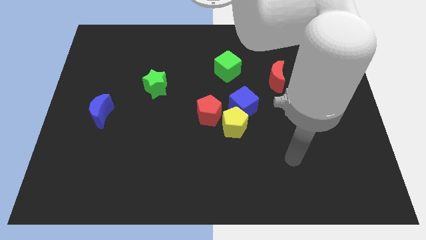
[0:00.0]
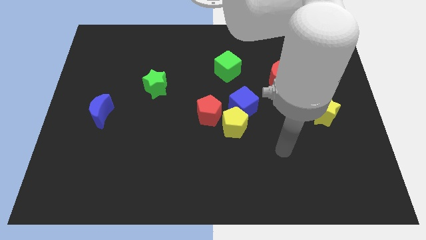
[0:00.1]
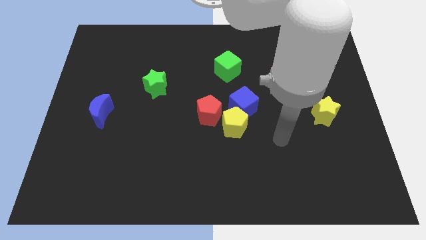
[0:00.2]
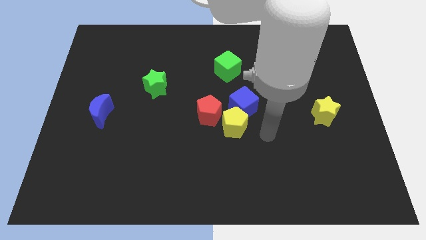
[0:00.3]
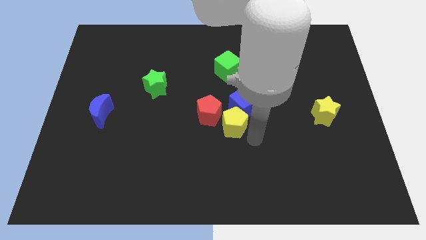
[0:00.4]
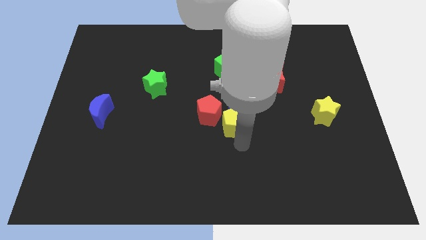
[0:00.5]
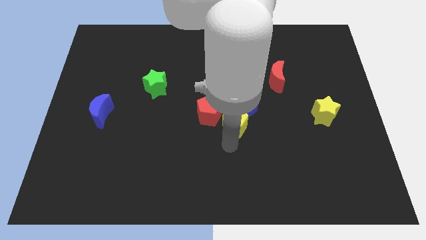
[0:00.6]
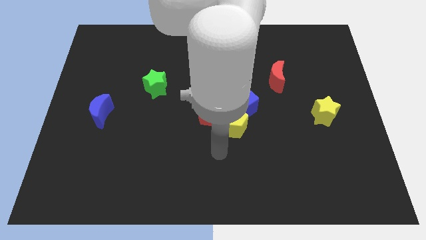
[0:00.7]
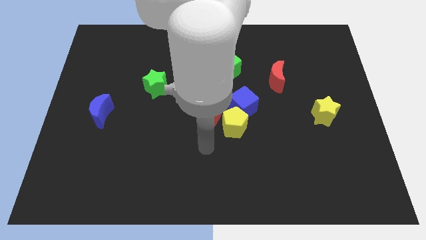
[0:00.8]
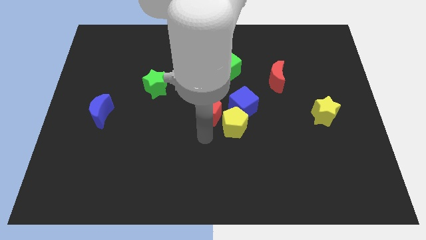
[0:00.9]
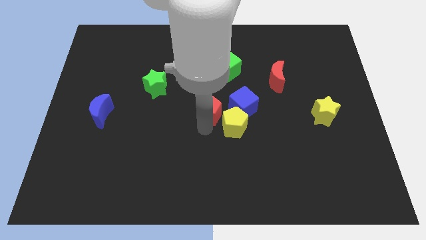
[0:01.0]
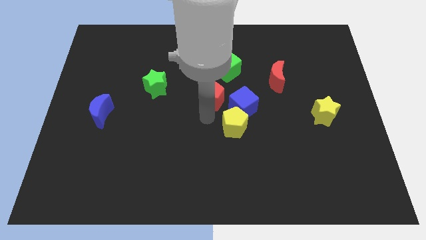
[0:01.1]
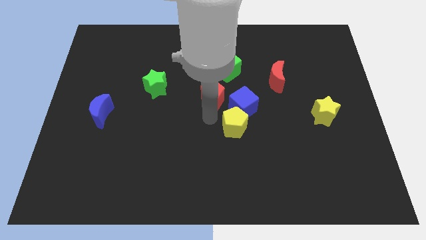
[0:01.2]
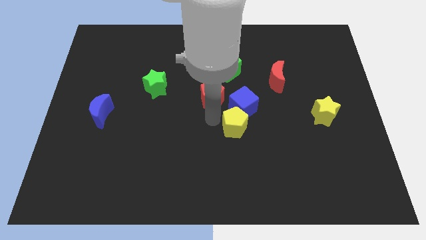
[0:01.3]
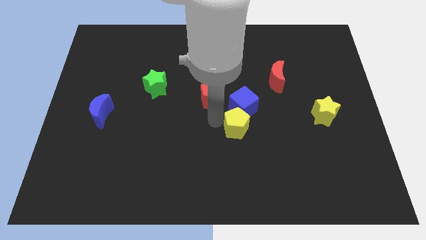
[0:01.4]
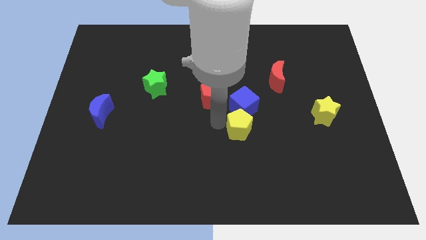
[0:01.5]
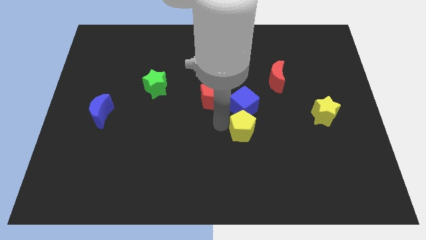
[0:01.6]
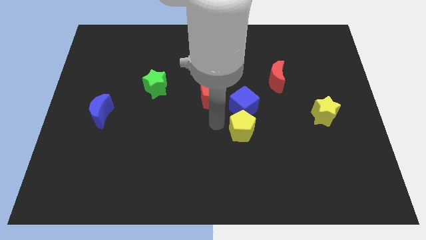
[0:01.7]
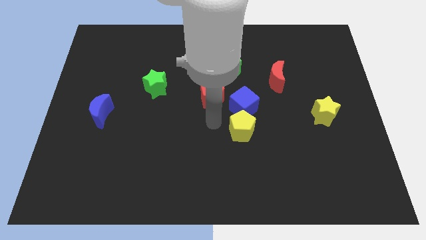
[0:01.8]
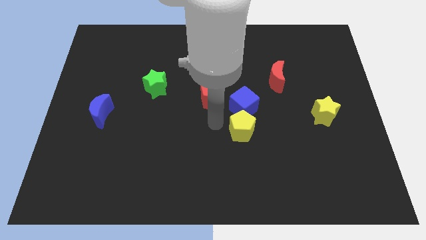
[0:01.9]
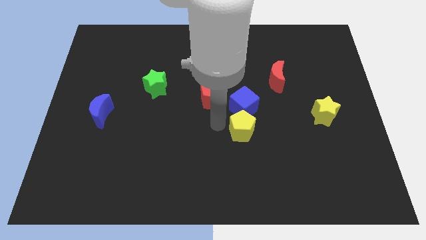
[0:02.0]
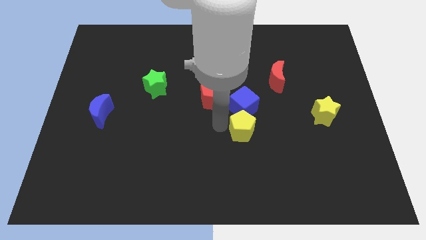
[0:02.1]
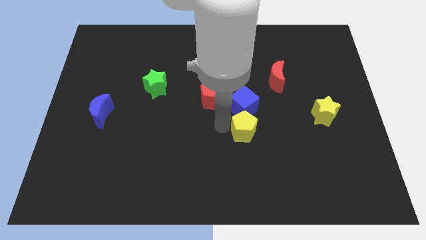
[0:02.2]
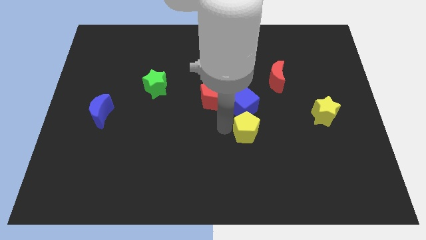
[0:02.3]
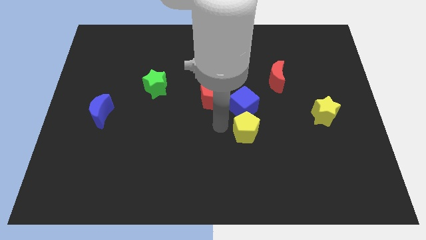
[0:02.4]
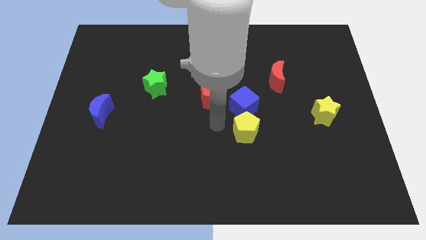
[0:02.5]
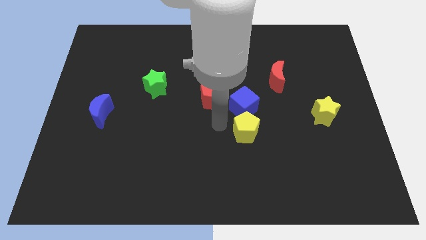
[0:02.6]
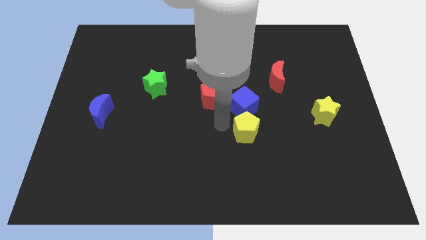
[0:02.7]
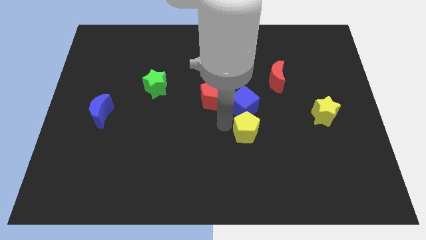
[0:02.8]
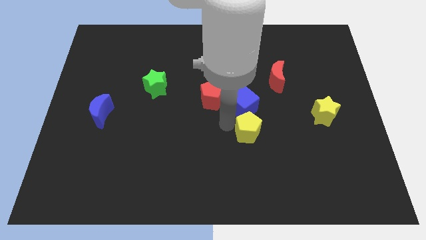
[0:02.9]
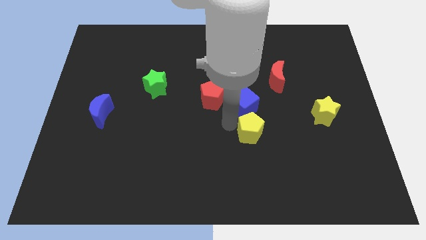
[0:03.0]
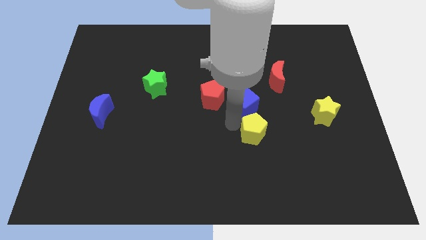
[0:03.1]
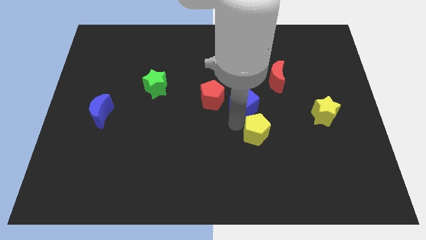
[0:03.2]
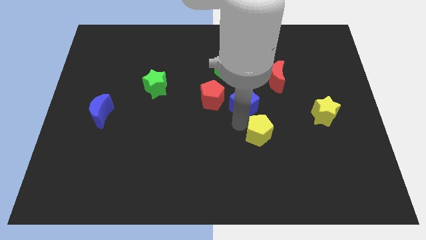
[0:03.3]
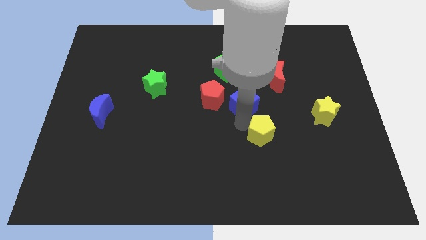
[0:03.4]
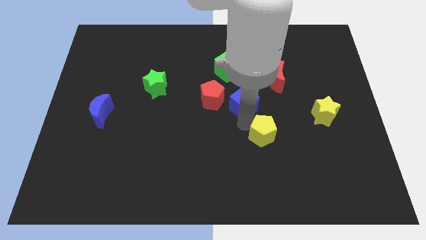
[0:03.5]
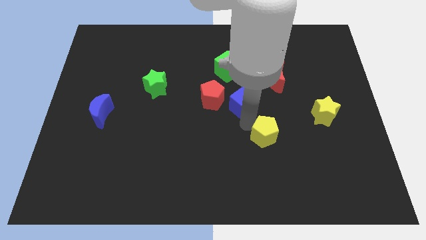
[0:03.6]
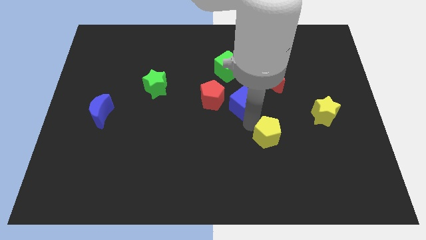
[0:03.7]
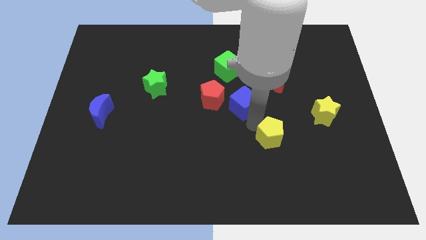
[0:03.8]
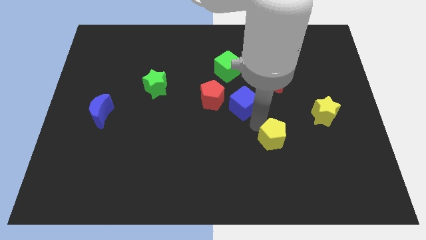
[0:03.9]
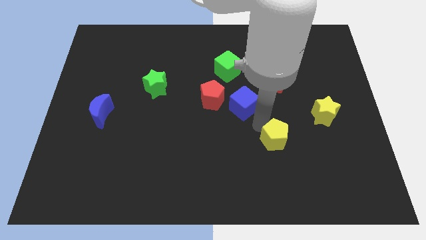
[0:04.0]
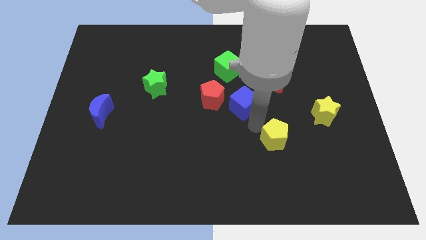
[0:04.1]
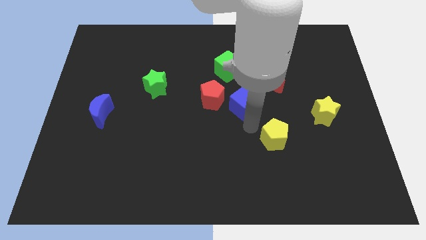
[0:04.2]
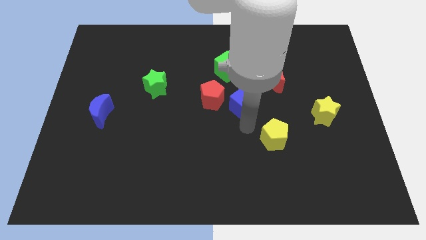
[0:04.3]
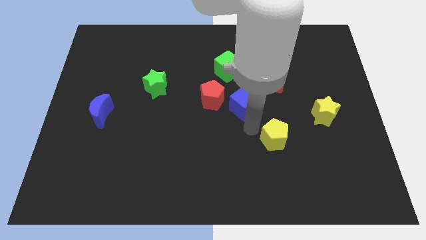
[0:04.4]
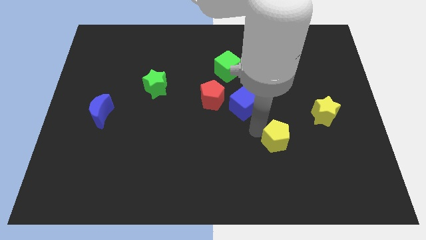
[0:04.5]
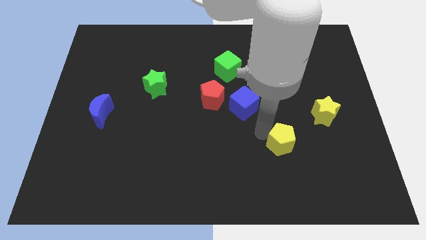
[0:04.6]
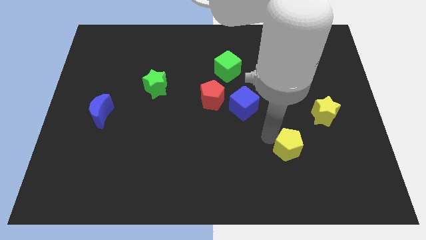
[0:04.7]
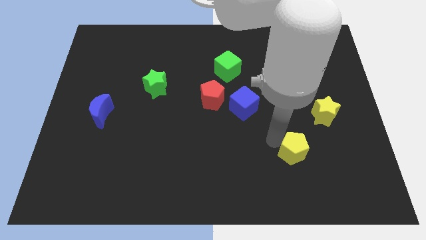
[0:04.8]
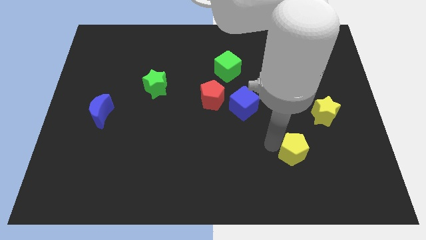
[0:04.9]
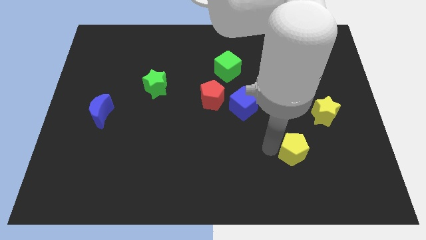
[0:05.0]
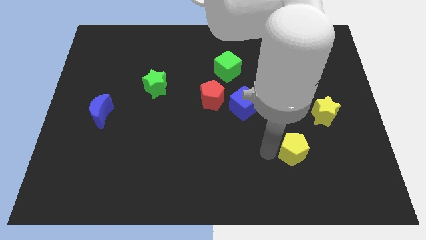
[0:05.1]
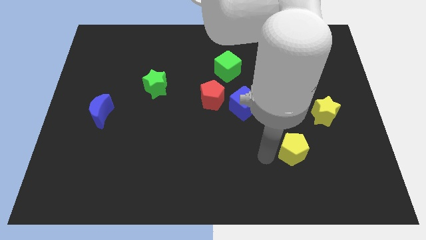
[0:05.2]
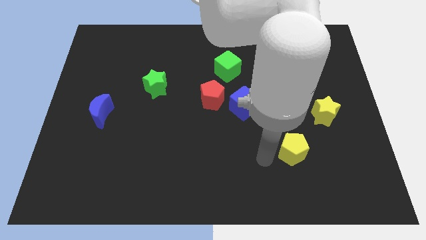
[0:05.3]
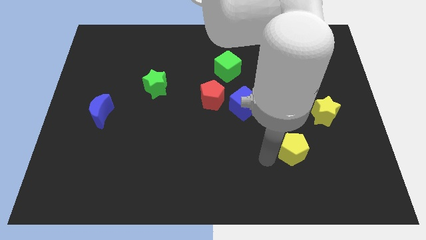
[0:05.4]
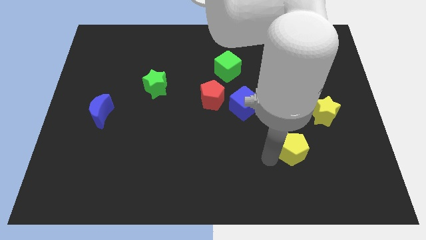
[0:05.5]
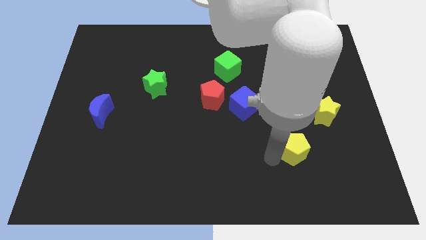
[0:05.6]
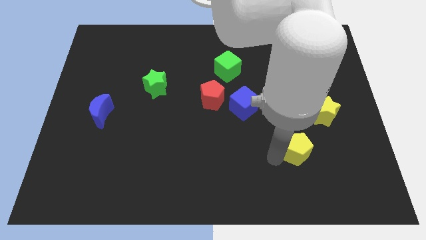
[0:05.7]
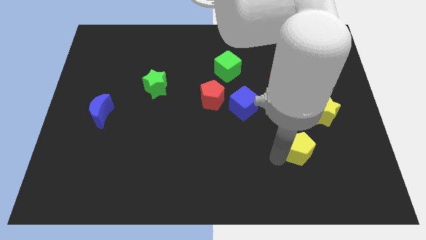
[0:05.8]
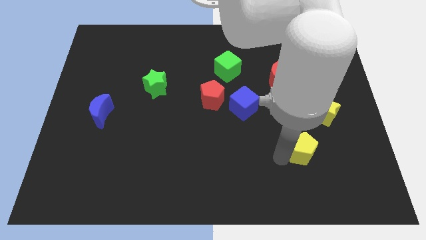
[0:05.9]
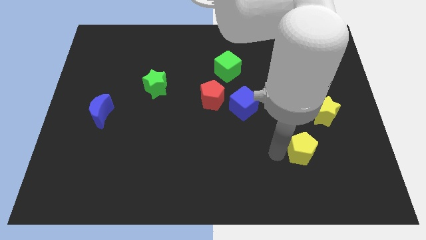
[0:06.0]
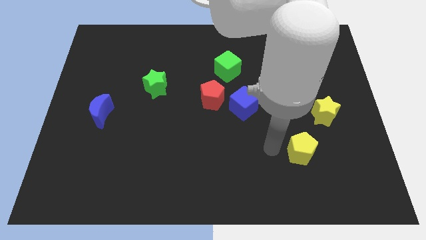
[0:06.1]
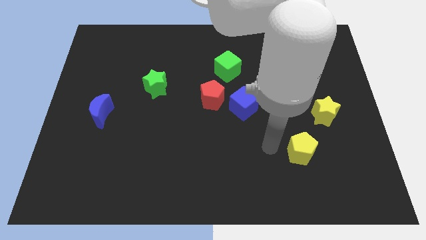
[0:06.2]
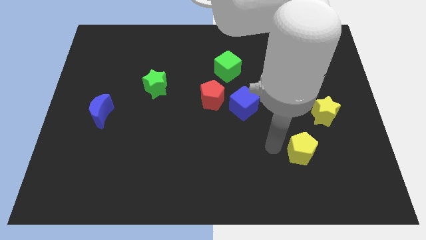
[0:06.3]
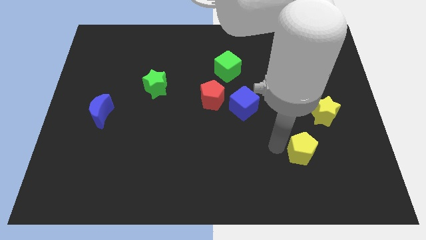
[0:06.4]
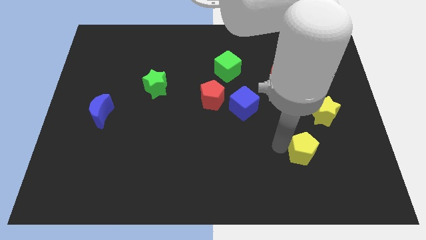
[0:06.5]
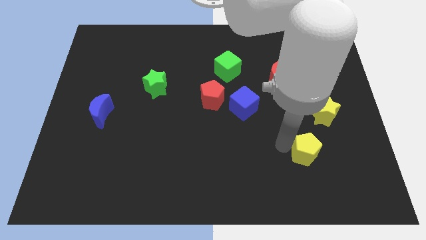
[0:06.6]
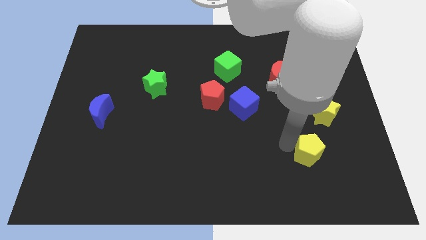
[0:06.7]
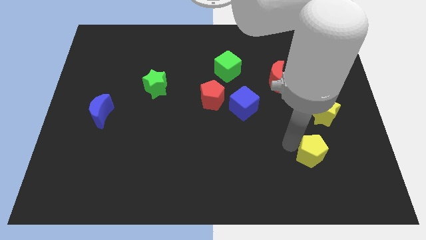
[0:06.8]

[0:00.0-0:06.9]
move the yellow pentagon to the bottom of the yellow star
